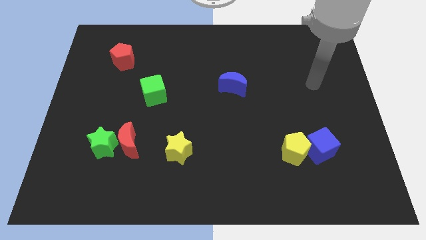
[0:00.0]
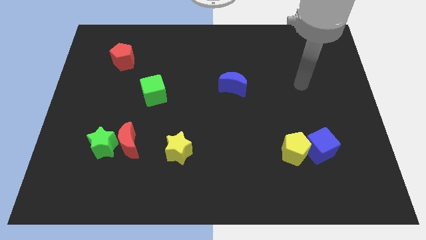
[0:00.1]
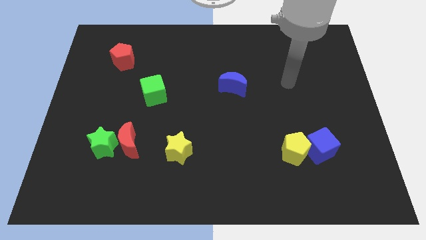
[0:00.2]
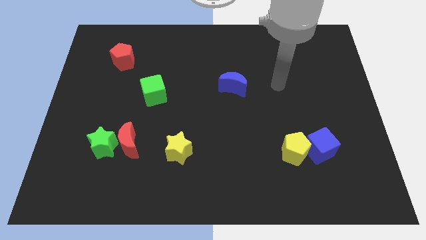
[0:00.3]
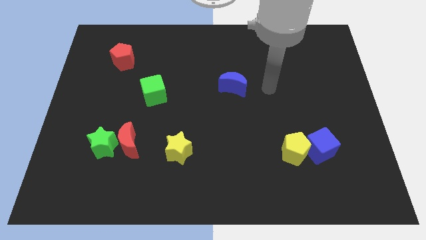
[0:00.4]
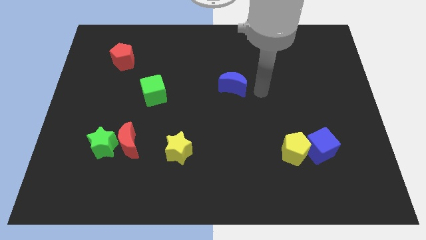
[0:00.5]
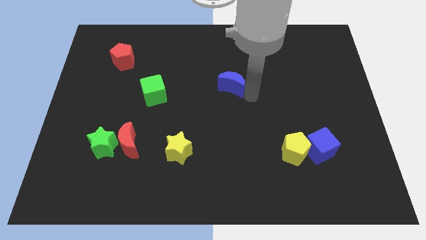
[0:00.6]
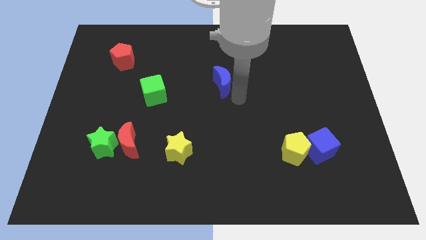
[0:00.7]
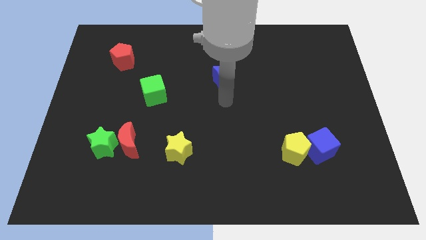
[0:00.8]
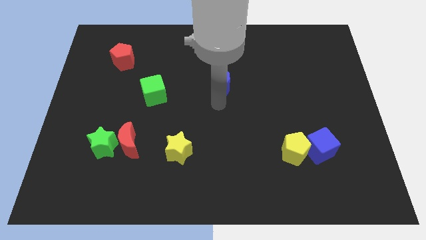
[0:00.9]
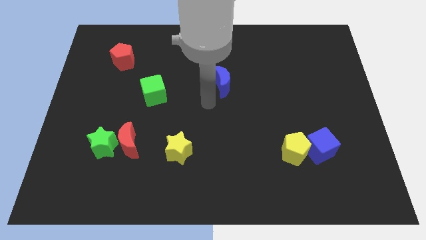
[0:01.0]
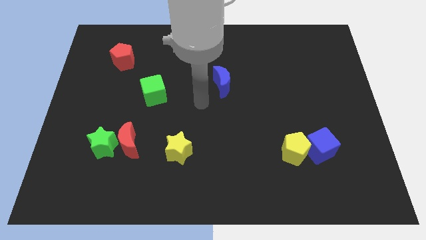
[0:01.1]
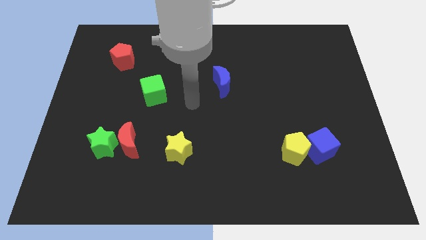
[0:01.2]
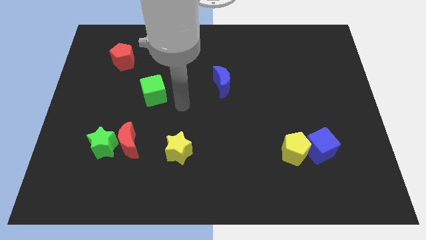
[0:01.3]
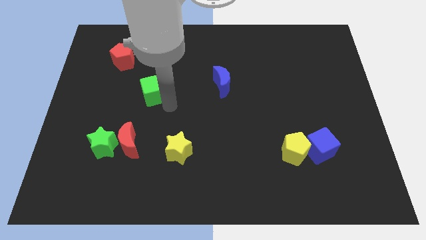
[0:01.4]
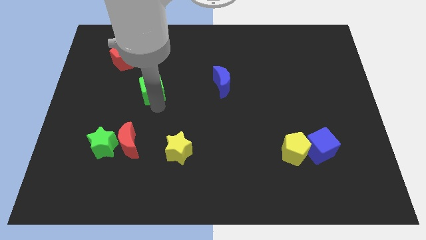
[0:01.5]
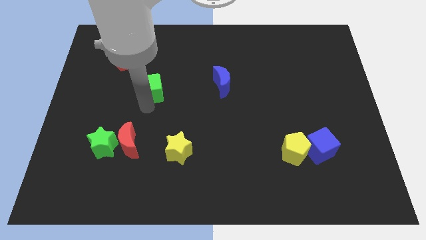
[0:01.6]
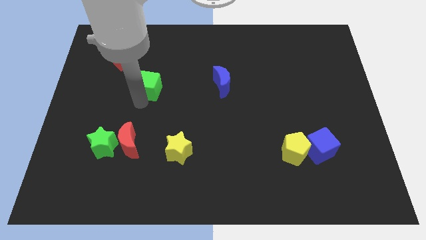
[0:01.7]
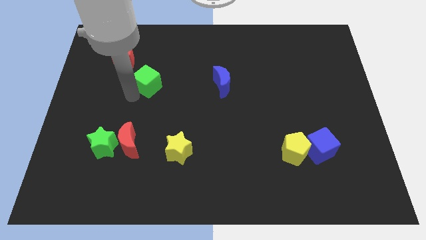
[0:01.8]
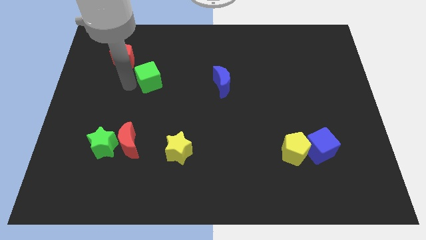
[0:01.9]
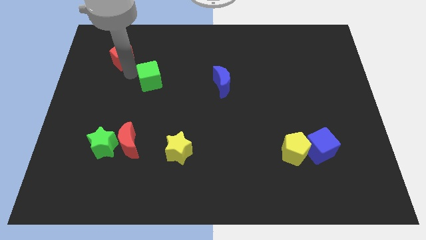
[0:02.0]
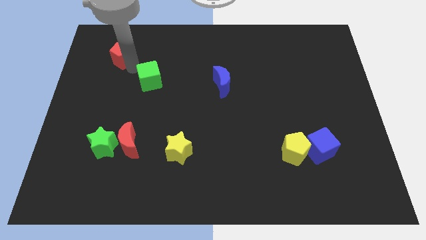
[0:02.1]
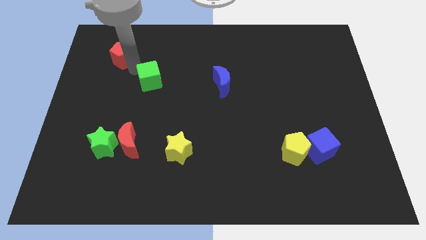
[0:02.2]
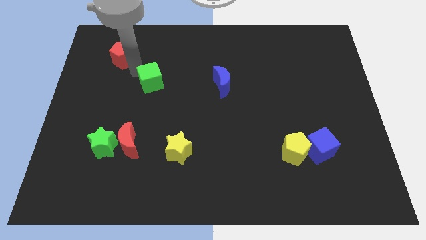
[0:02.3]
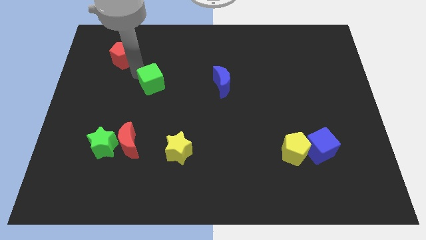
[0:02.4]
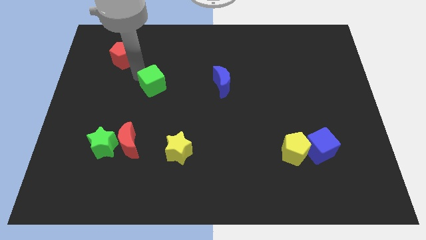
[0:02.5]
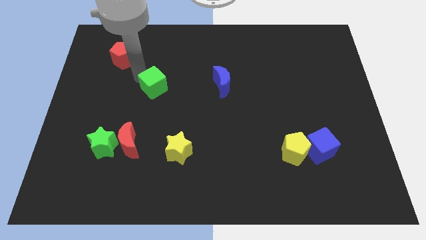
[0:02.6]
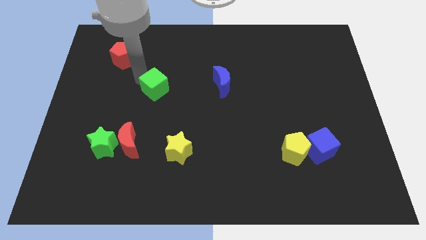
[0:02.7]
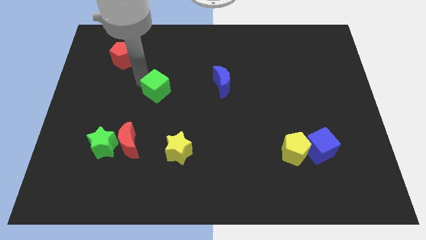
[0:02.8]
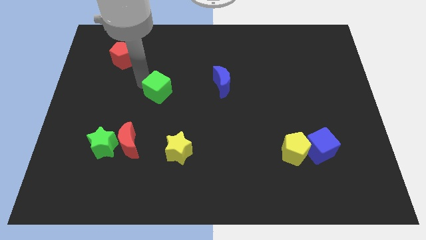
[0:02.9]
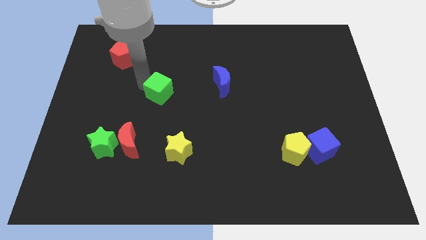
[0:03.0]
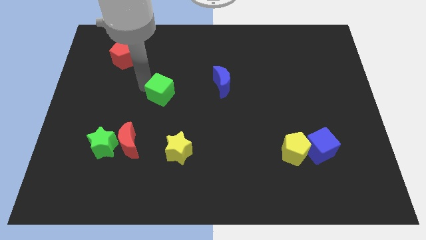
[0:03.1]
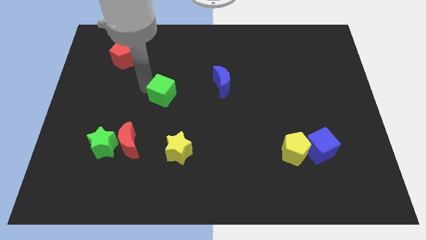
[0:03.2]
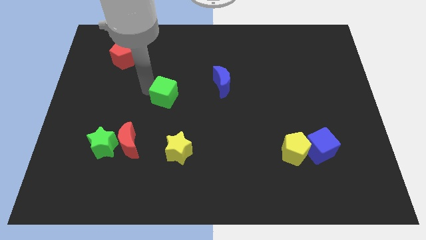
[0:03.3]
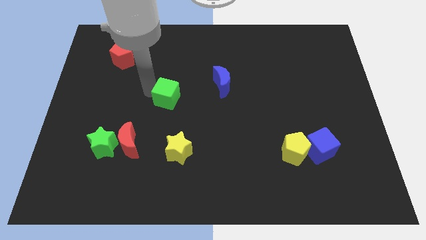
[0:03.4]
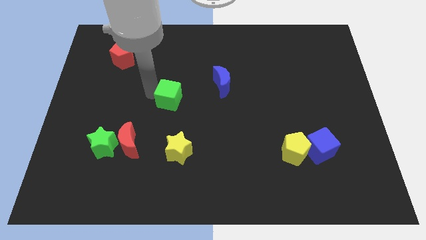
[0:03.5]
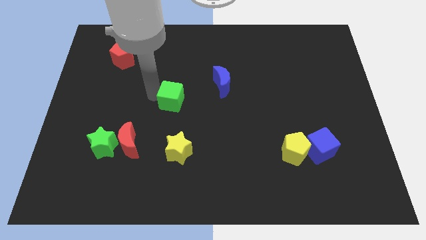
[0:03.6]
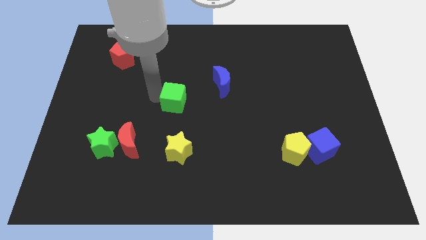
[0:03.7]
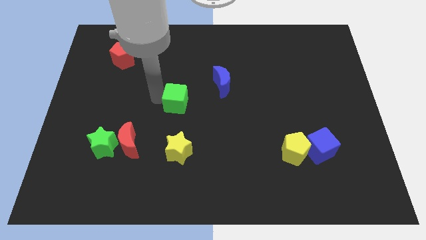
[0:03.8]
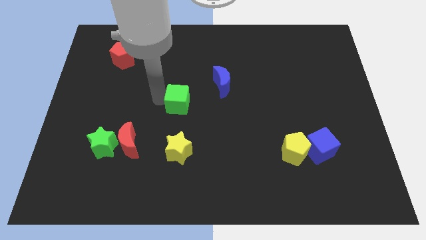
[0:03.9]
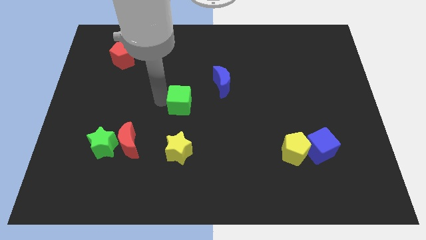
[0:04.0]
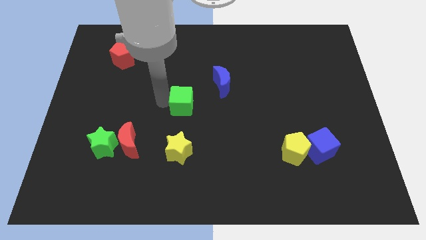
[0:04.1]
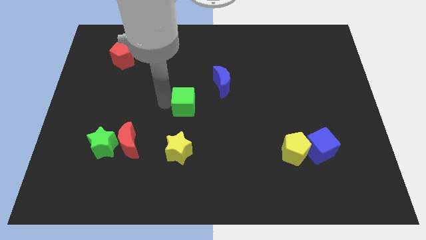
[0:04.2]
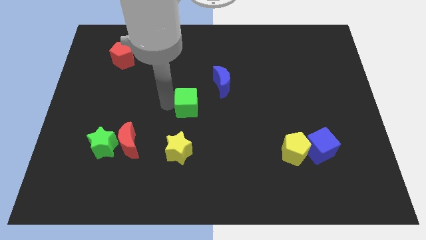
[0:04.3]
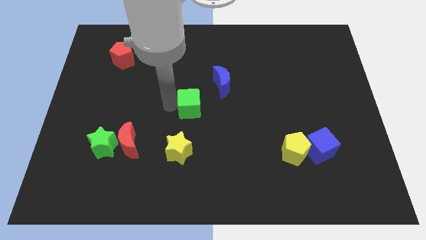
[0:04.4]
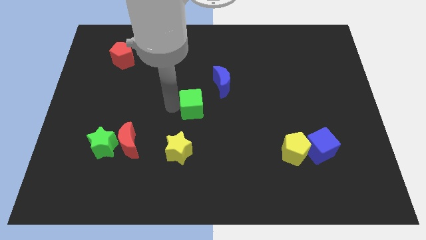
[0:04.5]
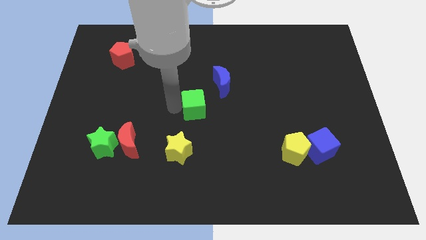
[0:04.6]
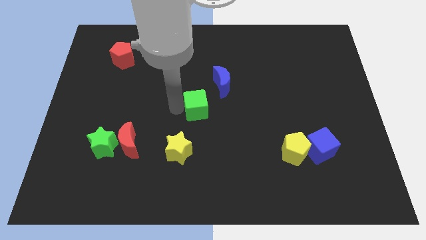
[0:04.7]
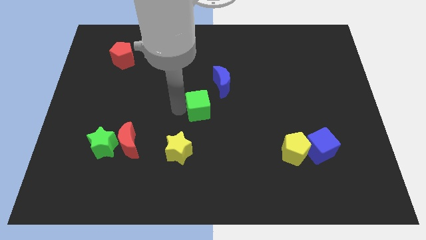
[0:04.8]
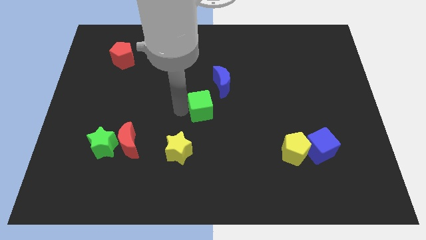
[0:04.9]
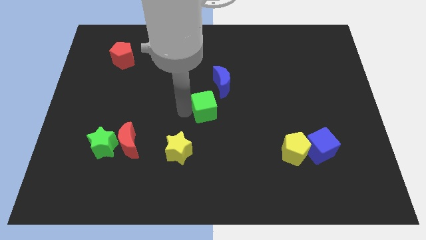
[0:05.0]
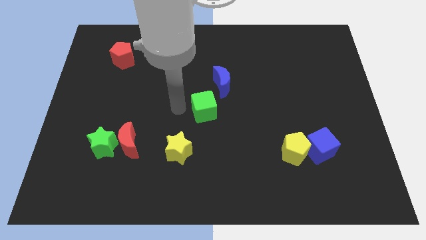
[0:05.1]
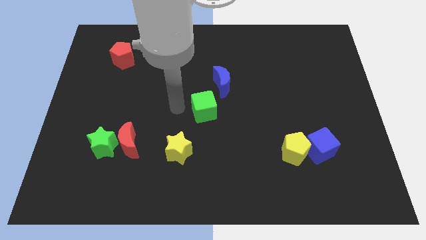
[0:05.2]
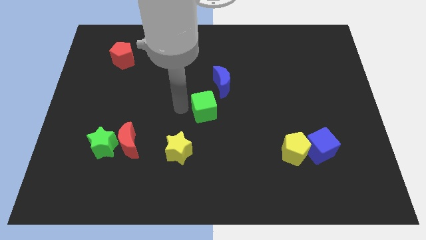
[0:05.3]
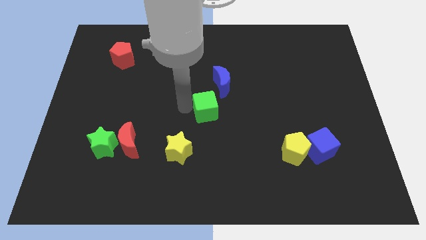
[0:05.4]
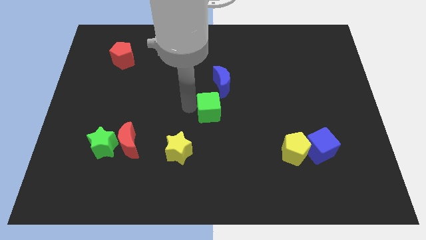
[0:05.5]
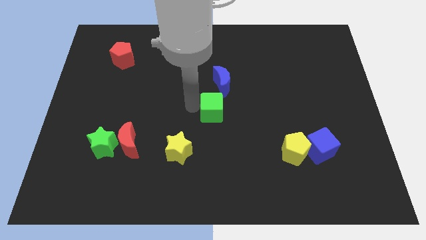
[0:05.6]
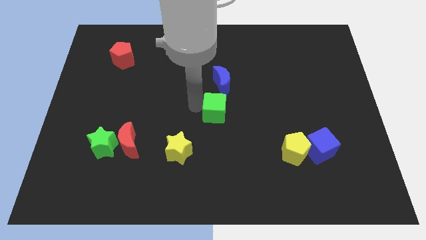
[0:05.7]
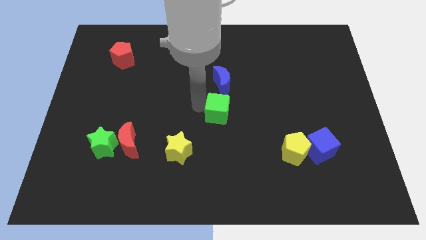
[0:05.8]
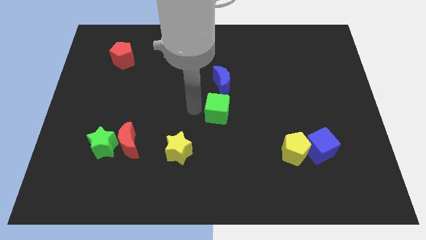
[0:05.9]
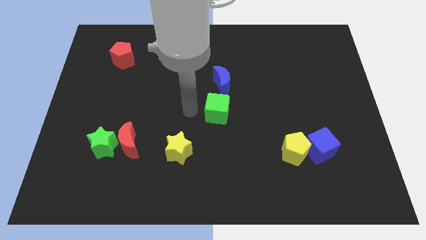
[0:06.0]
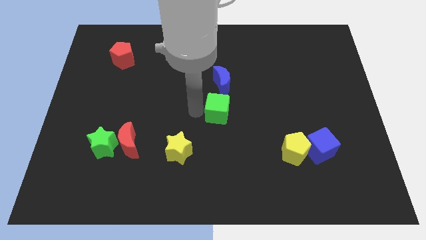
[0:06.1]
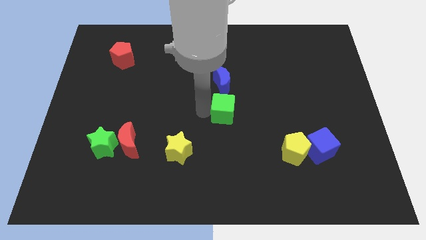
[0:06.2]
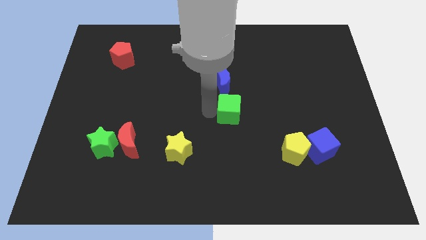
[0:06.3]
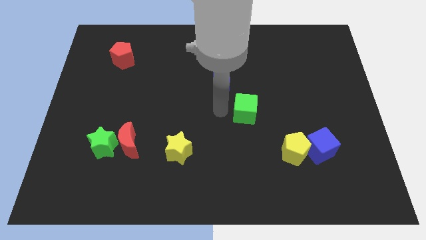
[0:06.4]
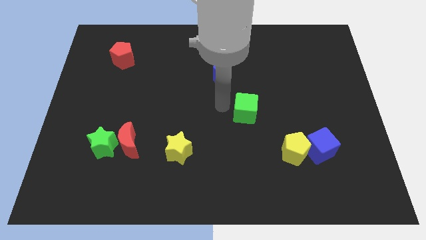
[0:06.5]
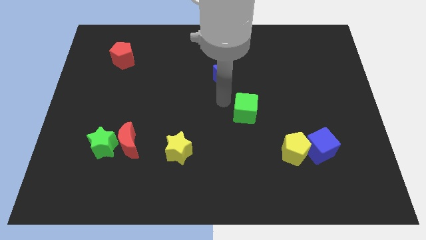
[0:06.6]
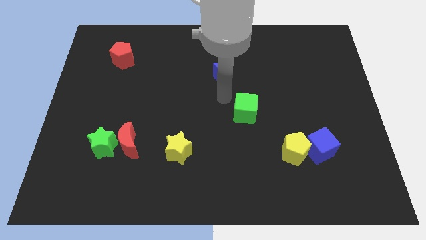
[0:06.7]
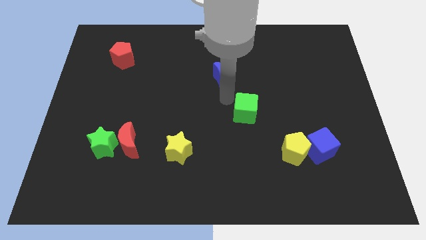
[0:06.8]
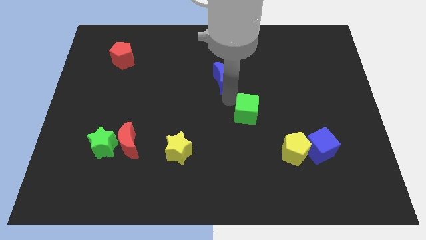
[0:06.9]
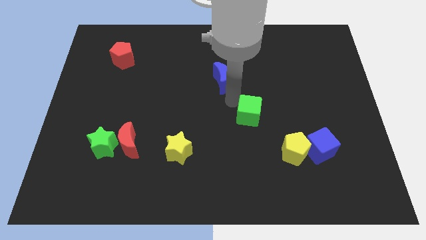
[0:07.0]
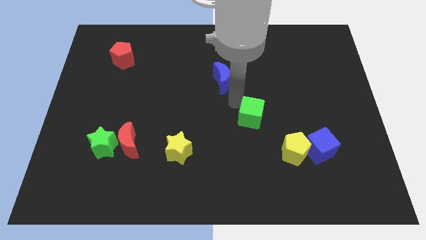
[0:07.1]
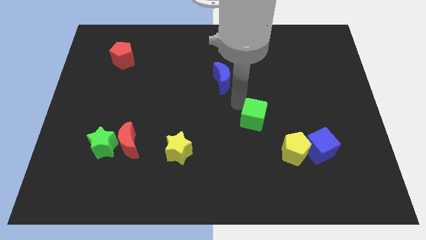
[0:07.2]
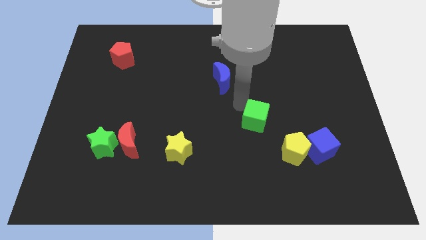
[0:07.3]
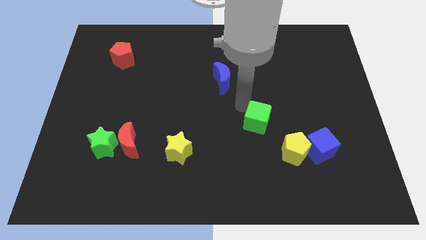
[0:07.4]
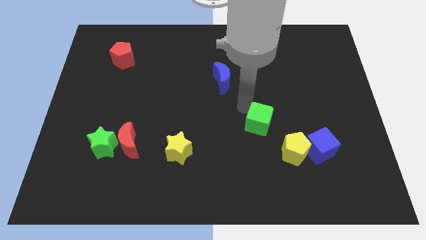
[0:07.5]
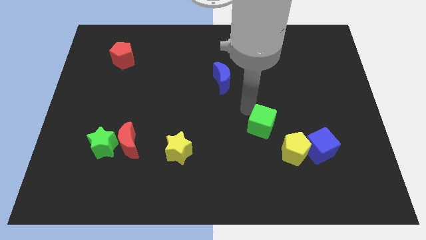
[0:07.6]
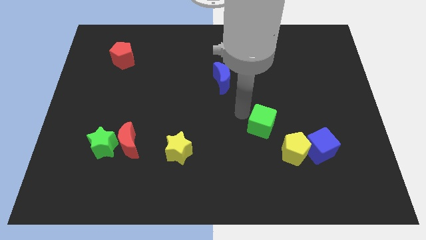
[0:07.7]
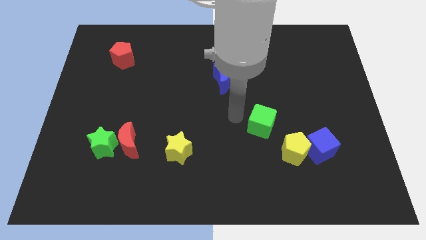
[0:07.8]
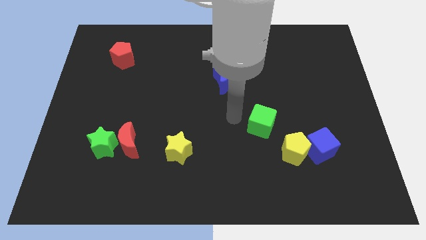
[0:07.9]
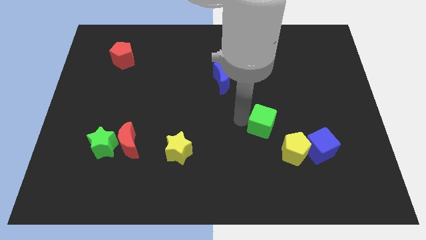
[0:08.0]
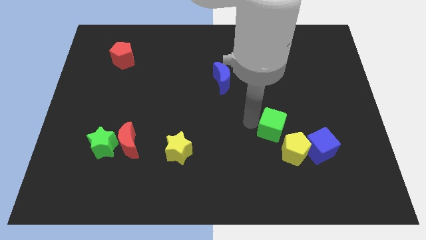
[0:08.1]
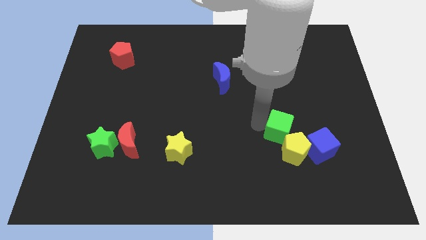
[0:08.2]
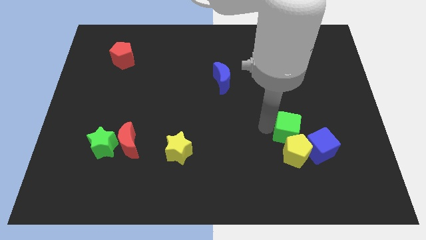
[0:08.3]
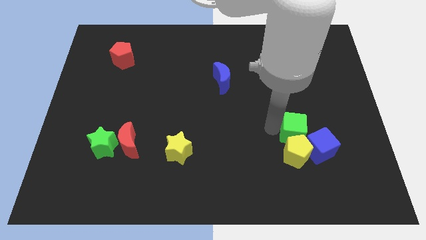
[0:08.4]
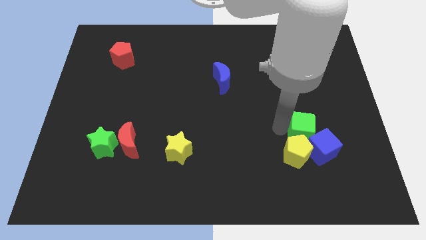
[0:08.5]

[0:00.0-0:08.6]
put the green cube close to the blue cube
